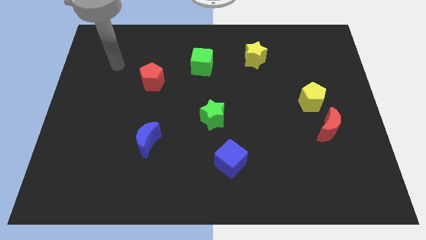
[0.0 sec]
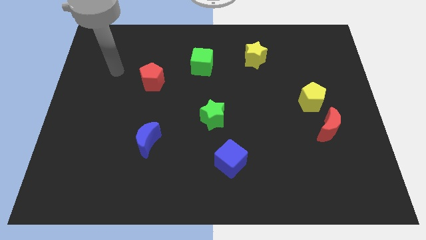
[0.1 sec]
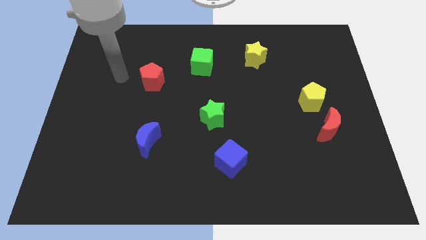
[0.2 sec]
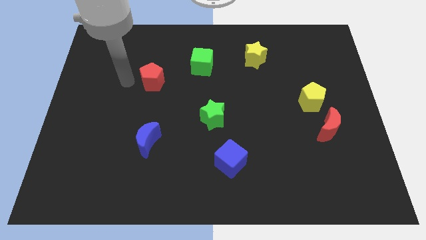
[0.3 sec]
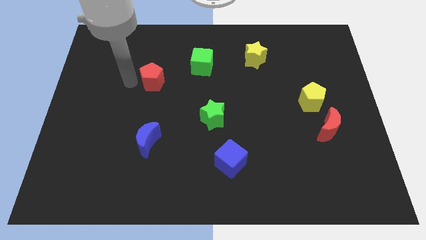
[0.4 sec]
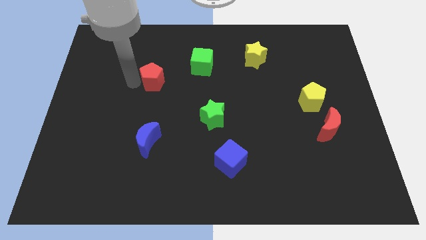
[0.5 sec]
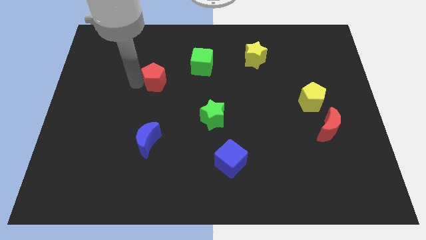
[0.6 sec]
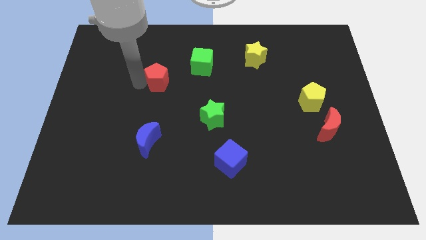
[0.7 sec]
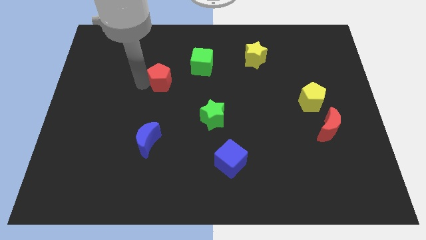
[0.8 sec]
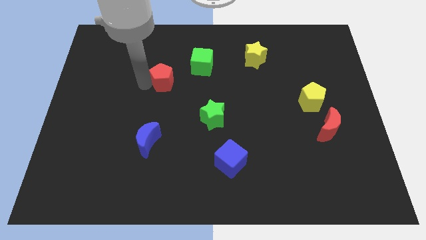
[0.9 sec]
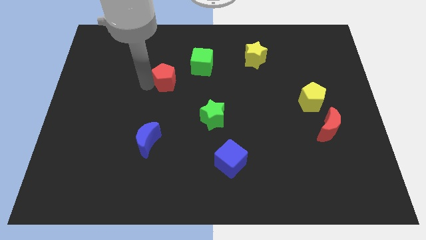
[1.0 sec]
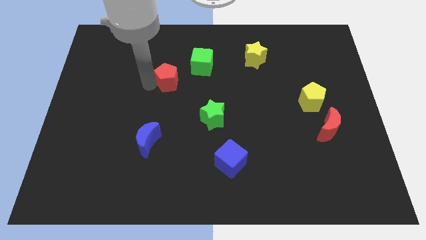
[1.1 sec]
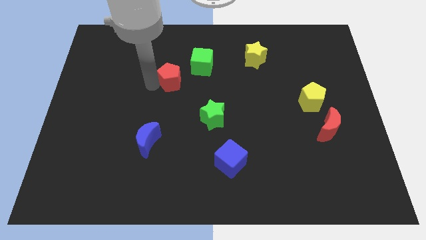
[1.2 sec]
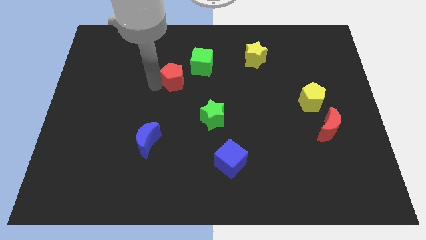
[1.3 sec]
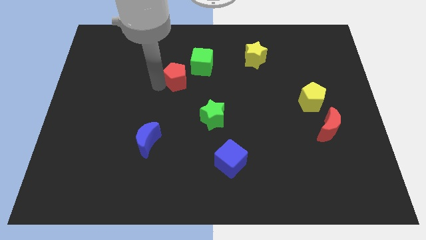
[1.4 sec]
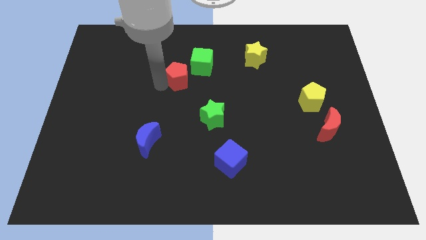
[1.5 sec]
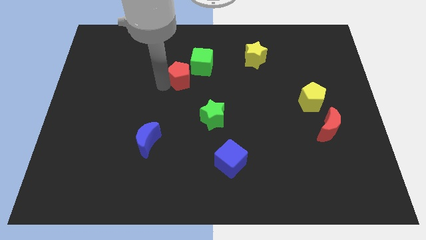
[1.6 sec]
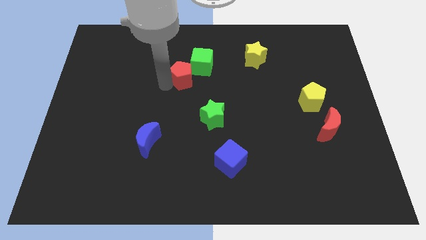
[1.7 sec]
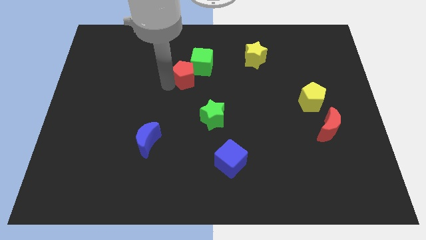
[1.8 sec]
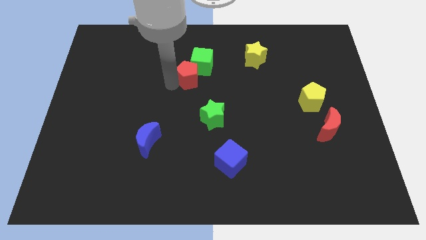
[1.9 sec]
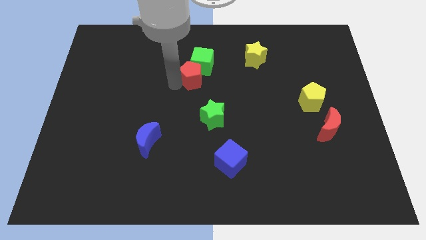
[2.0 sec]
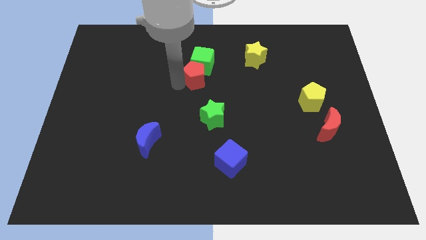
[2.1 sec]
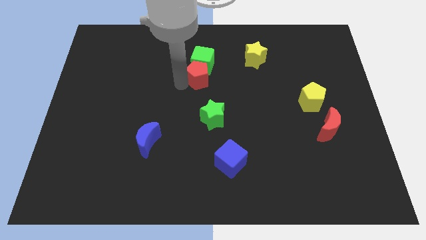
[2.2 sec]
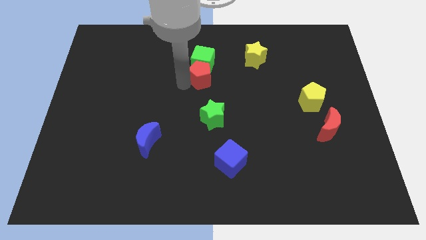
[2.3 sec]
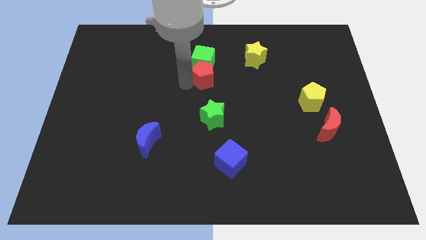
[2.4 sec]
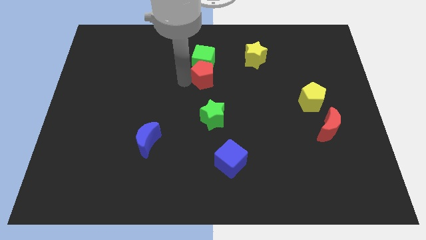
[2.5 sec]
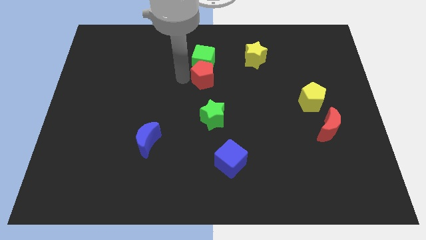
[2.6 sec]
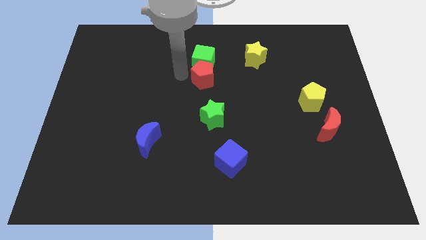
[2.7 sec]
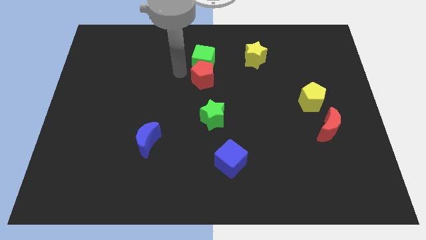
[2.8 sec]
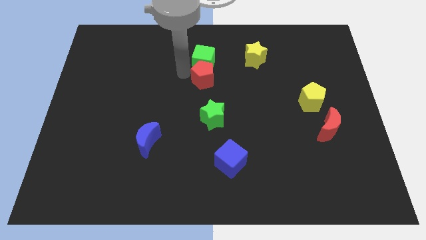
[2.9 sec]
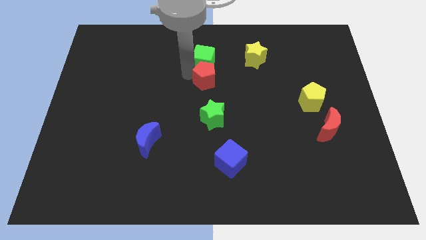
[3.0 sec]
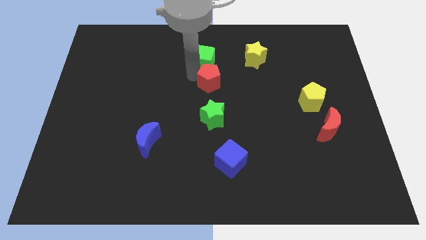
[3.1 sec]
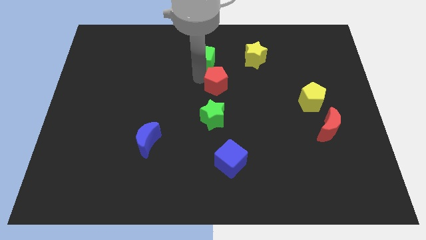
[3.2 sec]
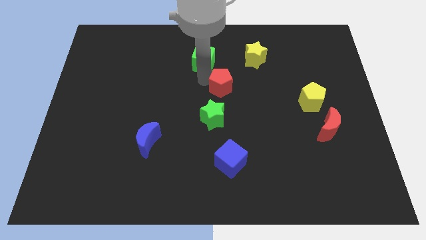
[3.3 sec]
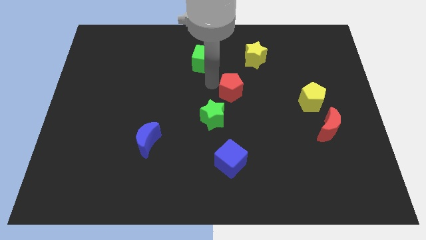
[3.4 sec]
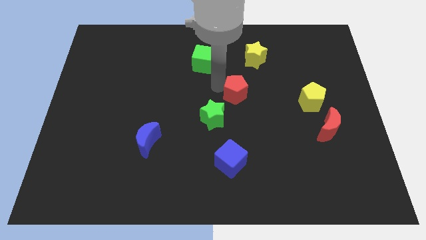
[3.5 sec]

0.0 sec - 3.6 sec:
slide the red pentagon right

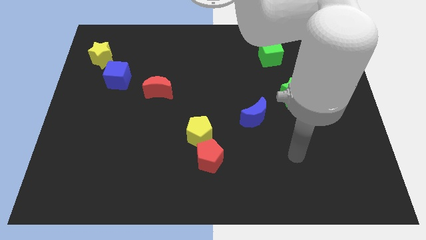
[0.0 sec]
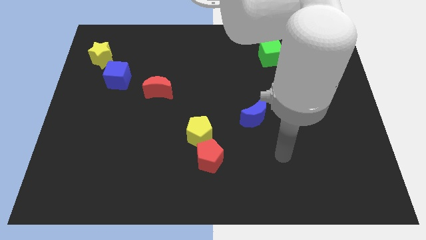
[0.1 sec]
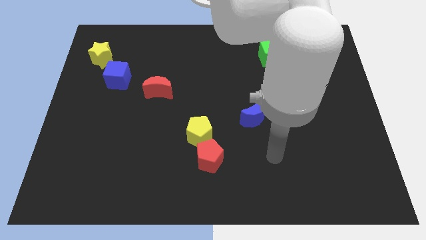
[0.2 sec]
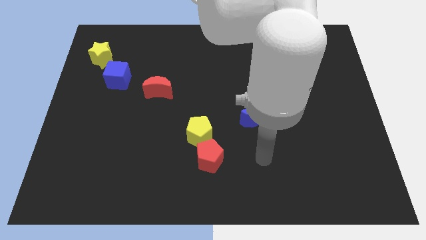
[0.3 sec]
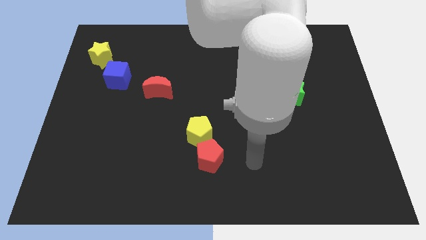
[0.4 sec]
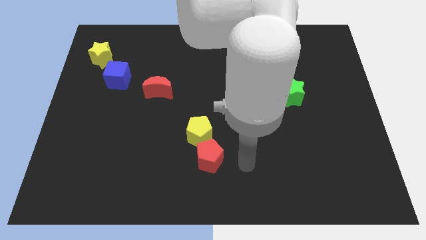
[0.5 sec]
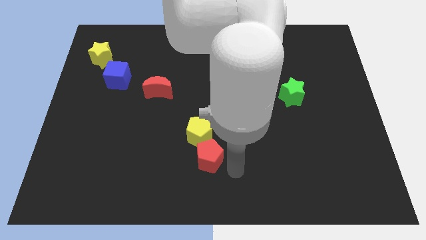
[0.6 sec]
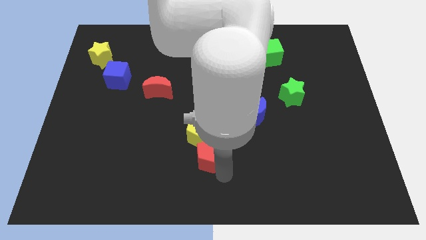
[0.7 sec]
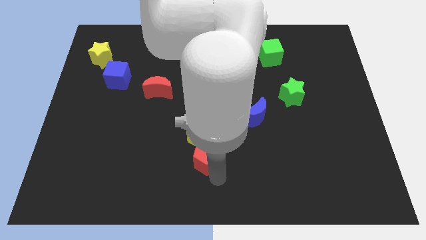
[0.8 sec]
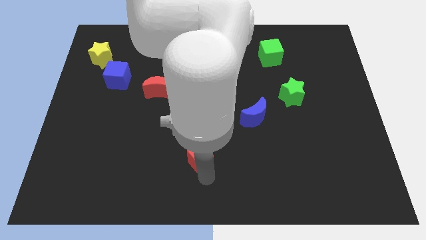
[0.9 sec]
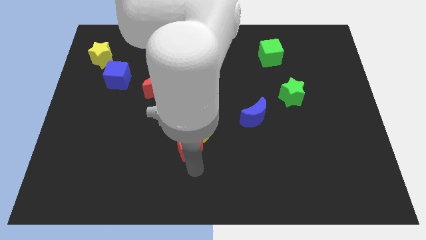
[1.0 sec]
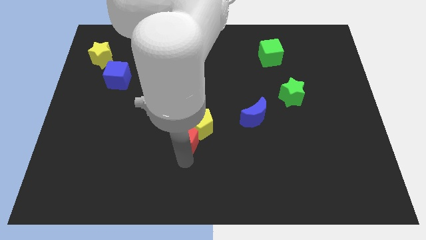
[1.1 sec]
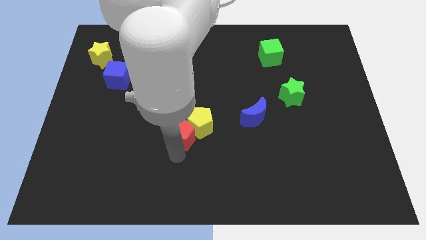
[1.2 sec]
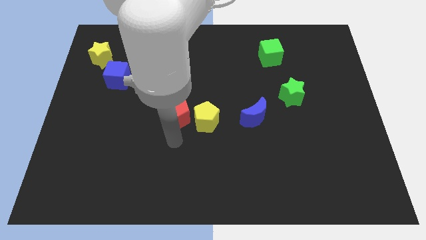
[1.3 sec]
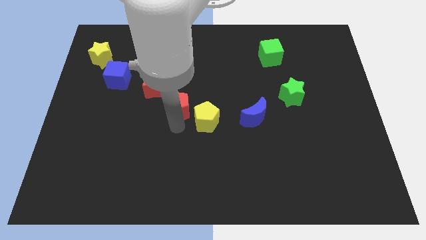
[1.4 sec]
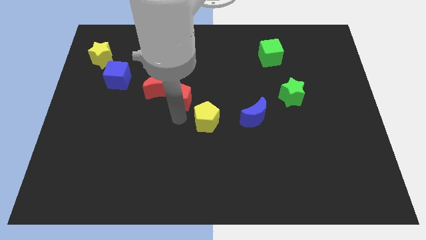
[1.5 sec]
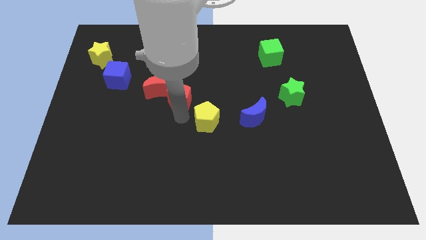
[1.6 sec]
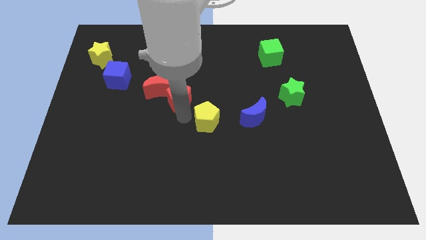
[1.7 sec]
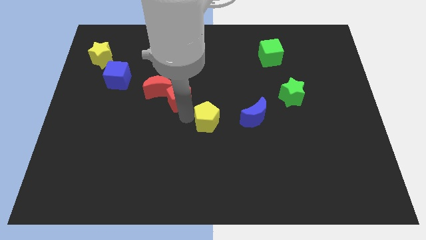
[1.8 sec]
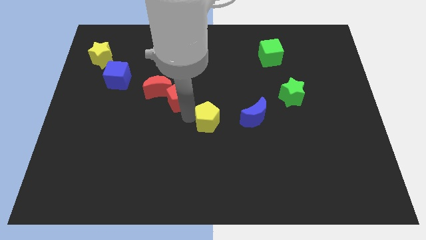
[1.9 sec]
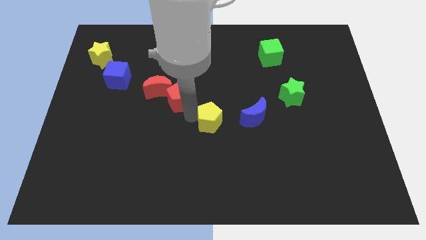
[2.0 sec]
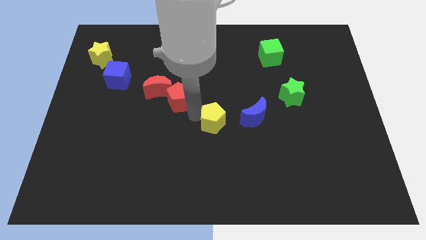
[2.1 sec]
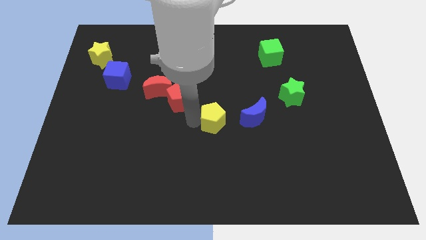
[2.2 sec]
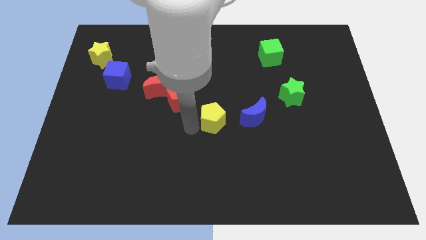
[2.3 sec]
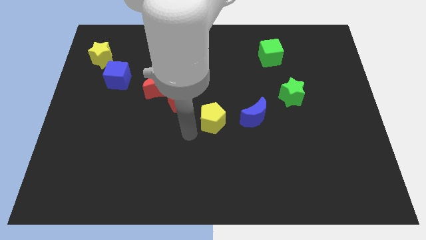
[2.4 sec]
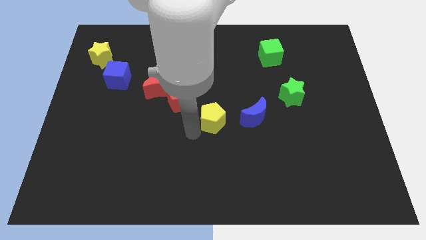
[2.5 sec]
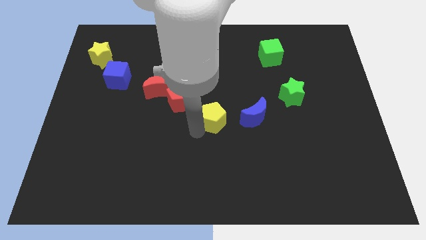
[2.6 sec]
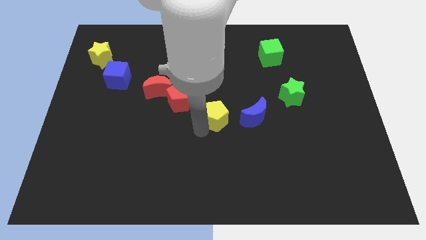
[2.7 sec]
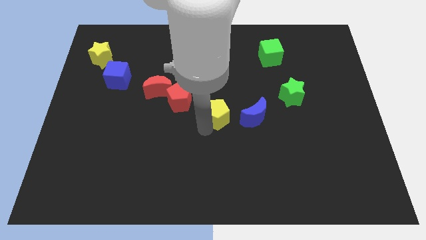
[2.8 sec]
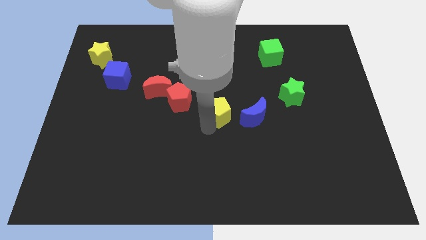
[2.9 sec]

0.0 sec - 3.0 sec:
move the yellow pentagon a little bit up and then to the right

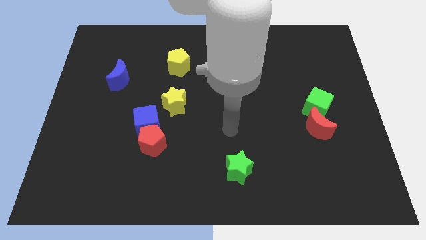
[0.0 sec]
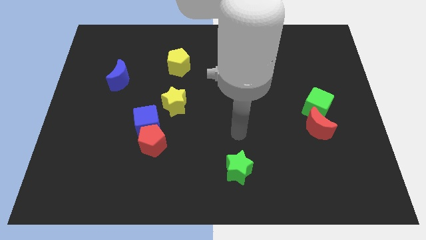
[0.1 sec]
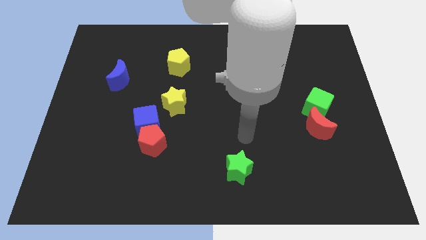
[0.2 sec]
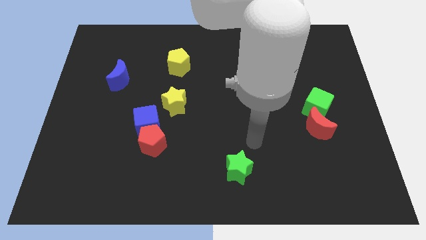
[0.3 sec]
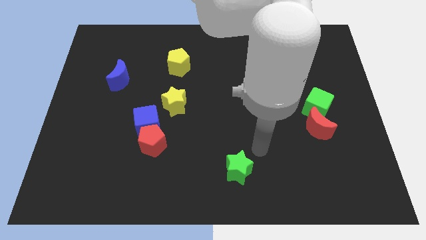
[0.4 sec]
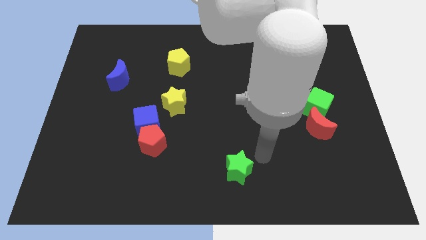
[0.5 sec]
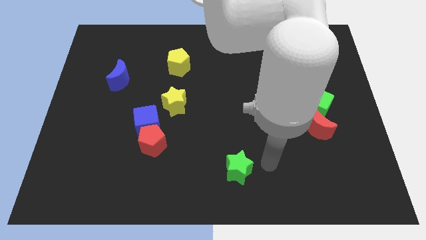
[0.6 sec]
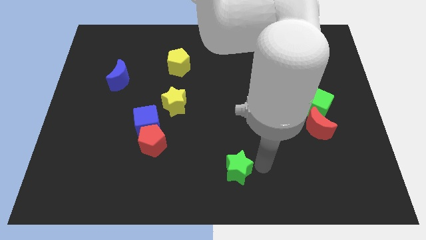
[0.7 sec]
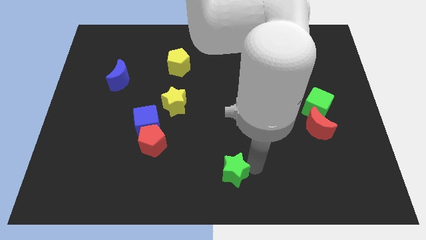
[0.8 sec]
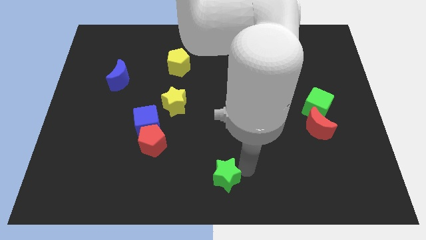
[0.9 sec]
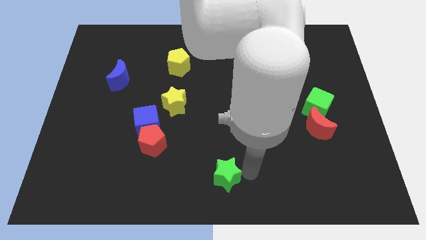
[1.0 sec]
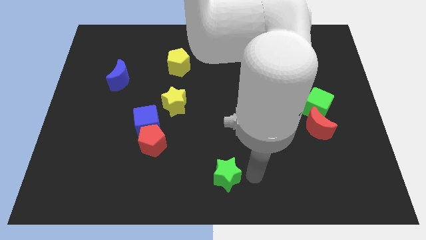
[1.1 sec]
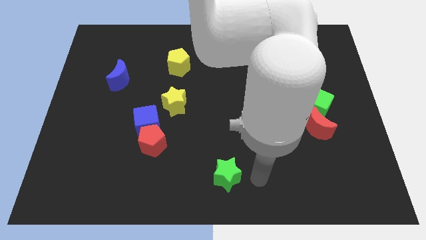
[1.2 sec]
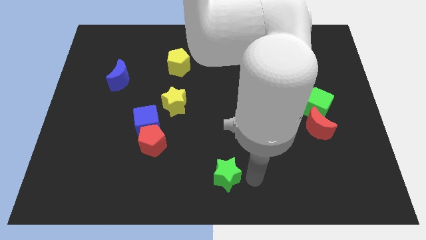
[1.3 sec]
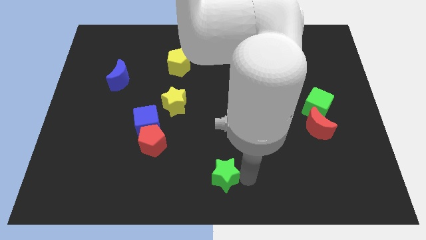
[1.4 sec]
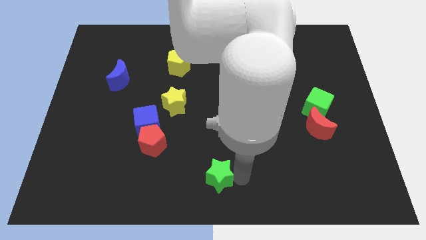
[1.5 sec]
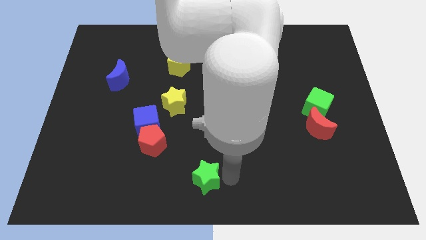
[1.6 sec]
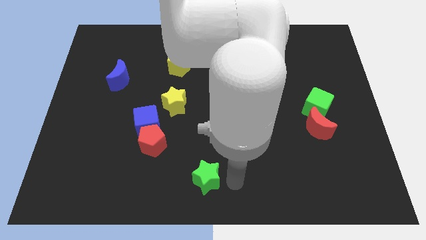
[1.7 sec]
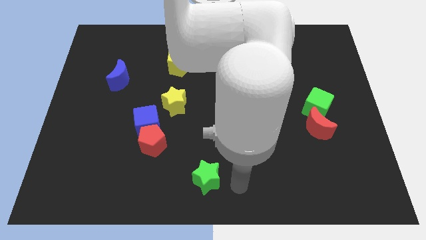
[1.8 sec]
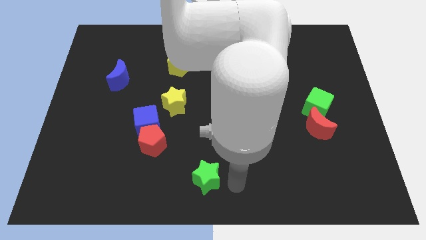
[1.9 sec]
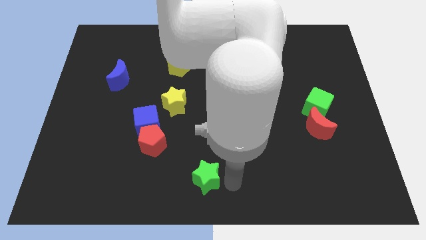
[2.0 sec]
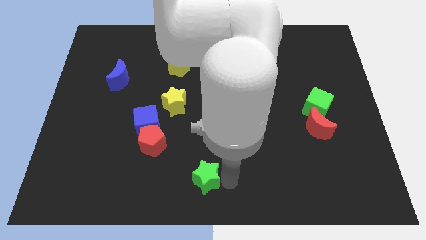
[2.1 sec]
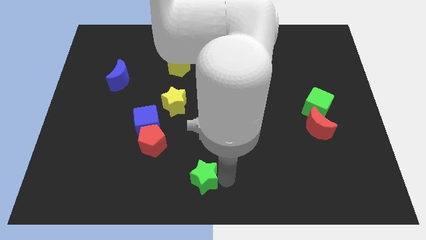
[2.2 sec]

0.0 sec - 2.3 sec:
slightly push the green star to the left
